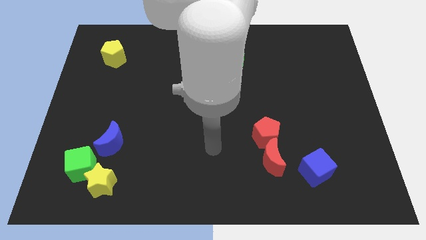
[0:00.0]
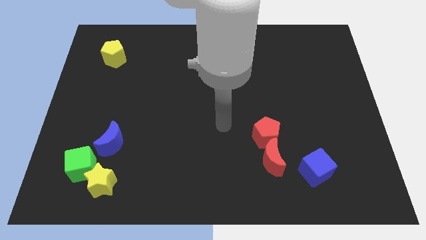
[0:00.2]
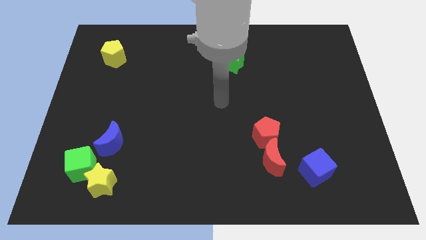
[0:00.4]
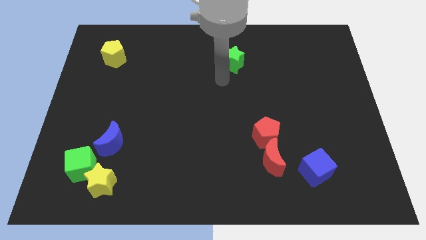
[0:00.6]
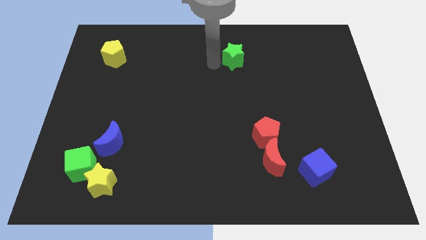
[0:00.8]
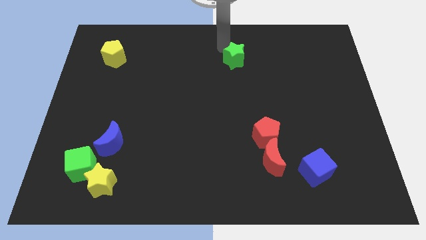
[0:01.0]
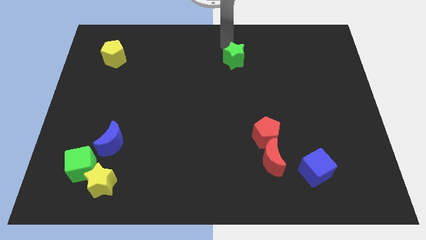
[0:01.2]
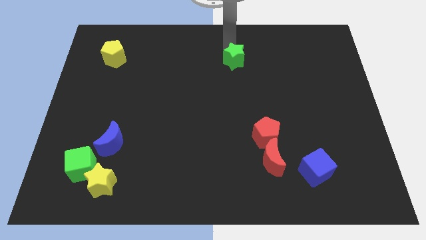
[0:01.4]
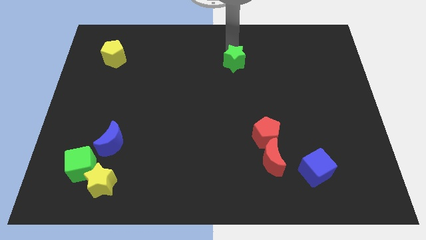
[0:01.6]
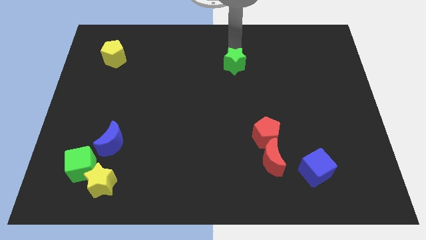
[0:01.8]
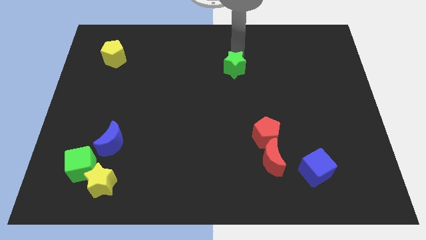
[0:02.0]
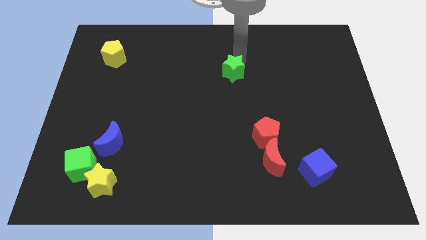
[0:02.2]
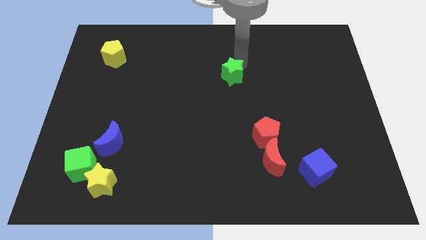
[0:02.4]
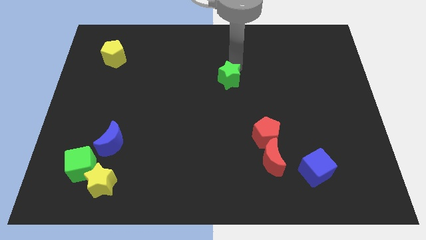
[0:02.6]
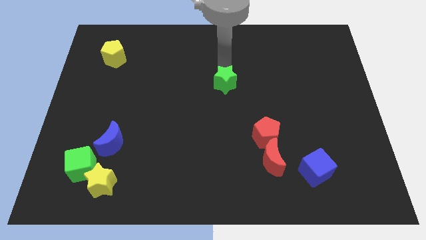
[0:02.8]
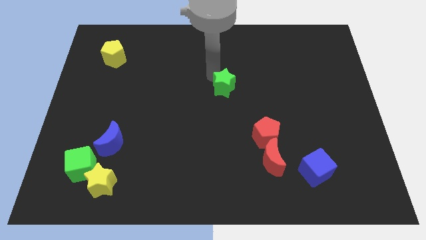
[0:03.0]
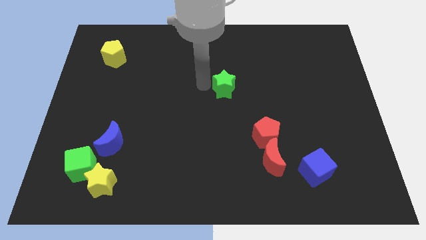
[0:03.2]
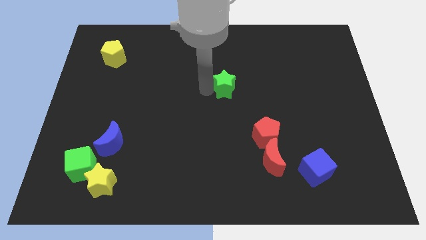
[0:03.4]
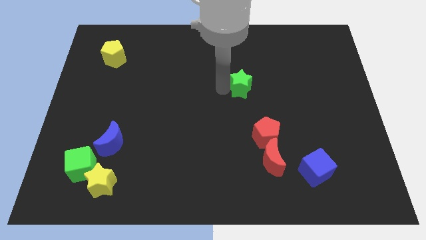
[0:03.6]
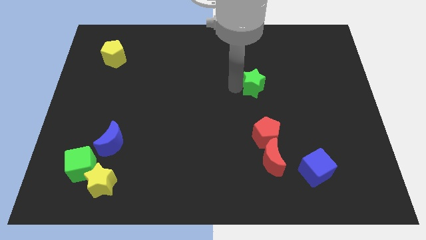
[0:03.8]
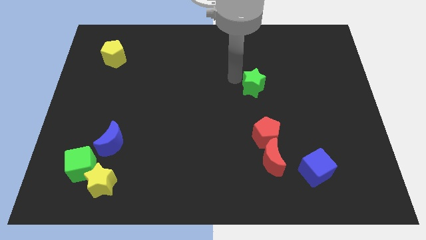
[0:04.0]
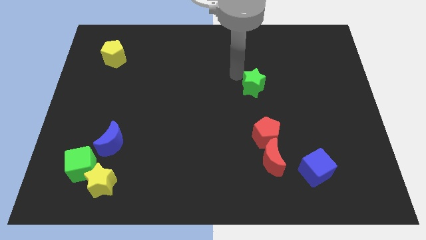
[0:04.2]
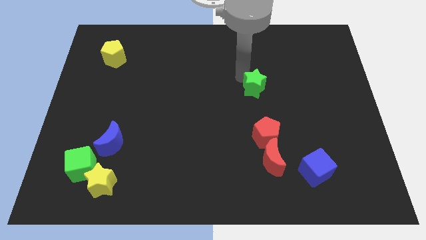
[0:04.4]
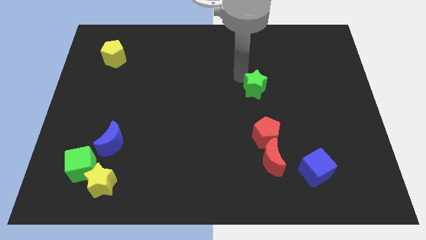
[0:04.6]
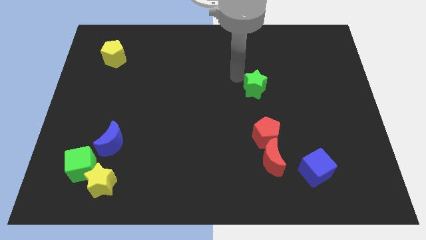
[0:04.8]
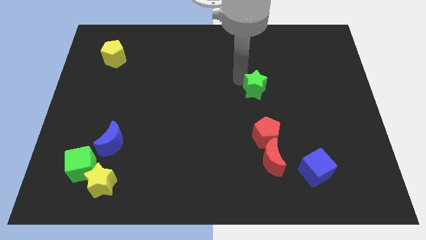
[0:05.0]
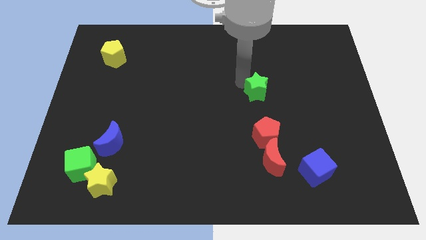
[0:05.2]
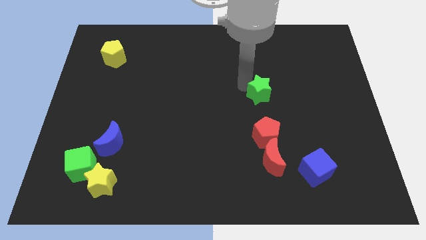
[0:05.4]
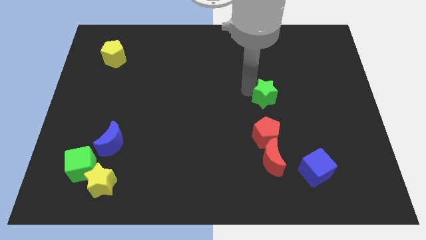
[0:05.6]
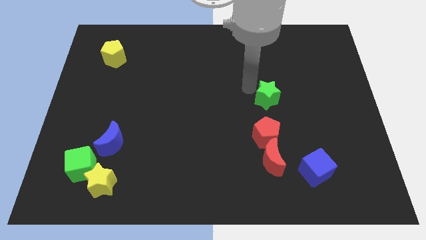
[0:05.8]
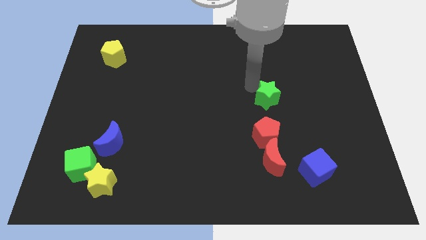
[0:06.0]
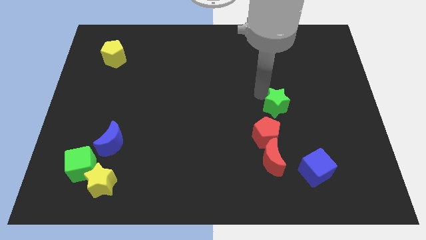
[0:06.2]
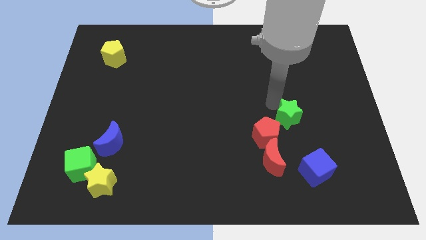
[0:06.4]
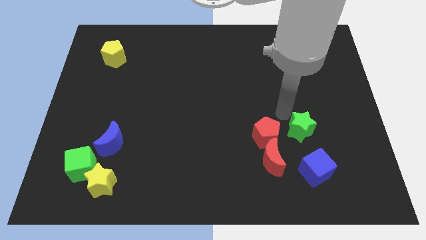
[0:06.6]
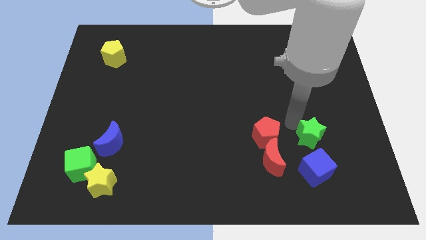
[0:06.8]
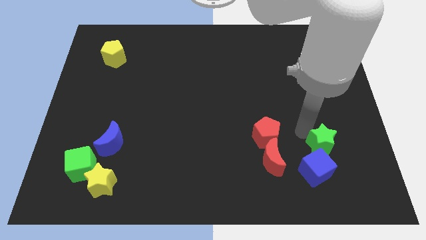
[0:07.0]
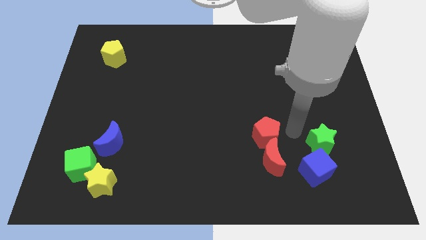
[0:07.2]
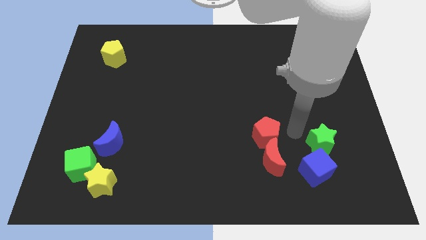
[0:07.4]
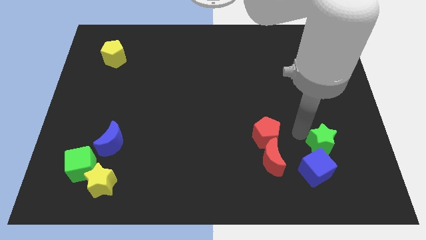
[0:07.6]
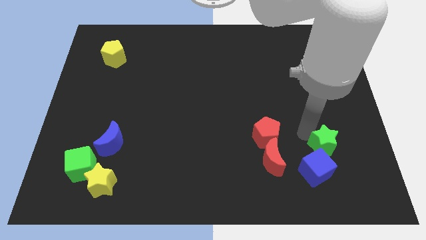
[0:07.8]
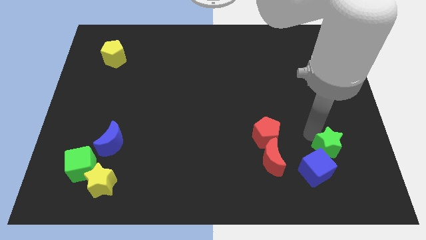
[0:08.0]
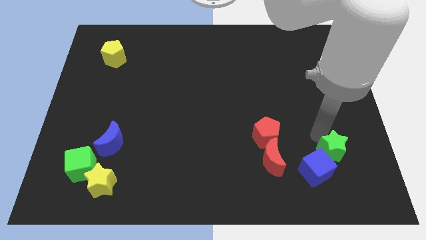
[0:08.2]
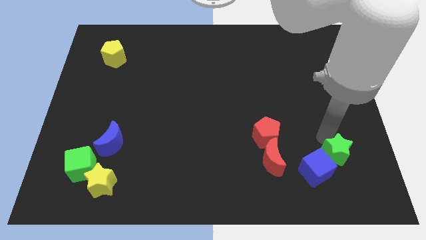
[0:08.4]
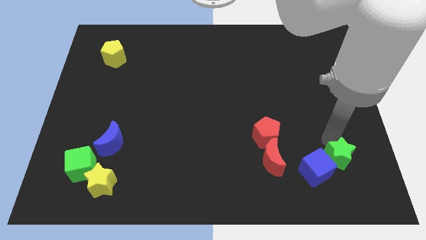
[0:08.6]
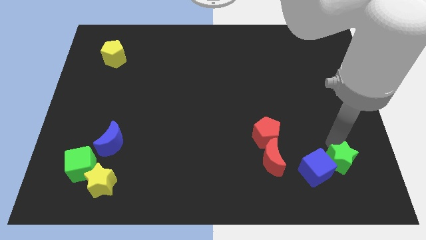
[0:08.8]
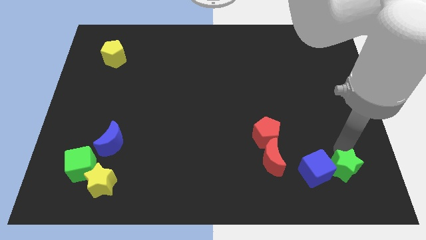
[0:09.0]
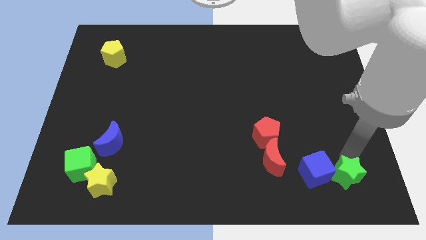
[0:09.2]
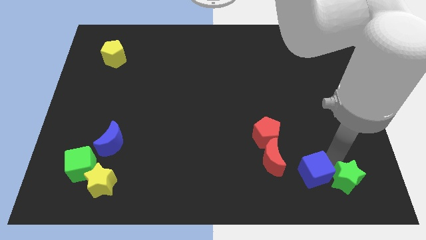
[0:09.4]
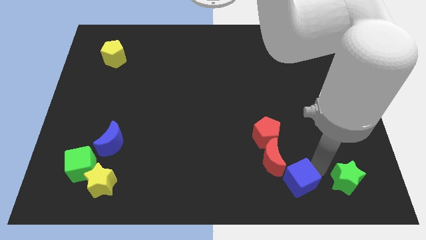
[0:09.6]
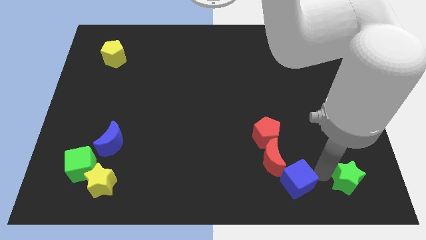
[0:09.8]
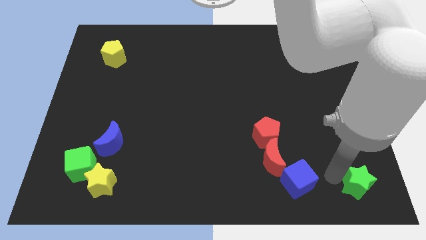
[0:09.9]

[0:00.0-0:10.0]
move the green star to the bottom right corner

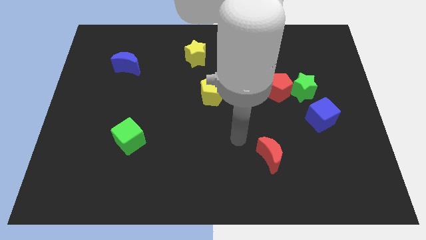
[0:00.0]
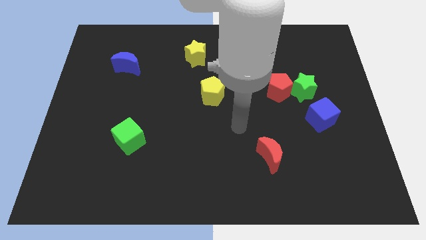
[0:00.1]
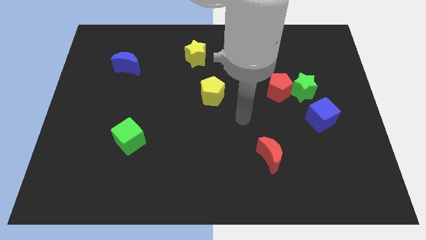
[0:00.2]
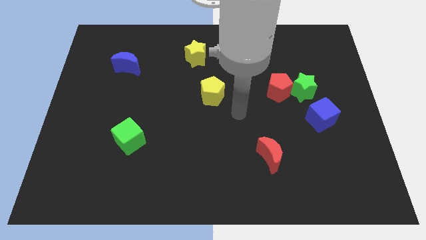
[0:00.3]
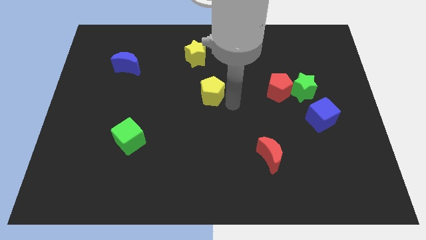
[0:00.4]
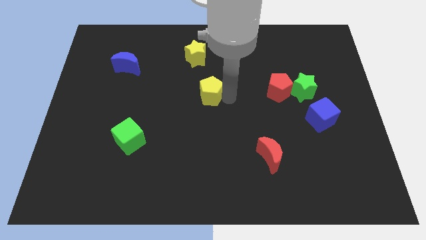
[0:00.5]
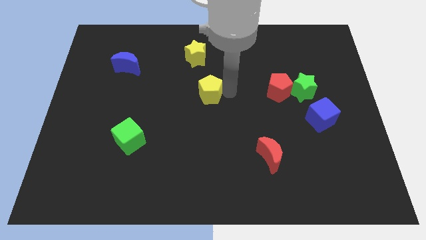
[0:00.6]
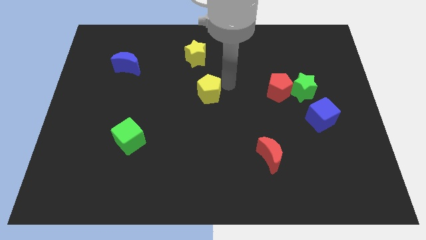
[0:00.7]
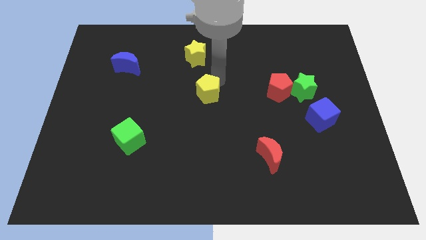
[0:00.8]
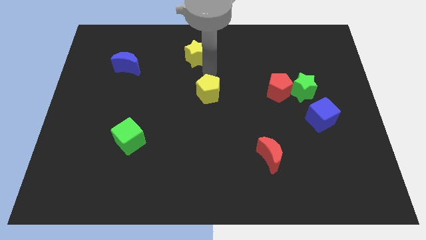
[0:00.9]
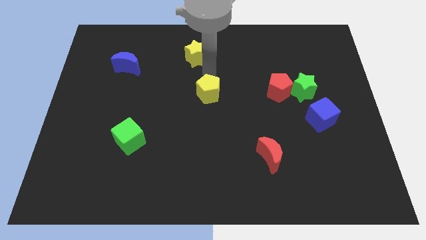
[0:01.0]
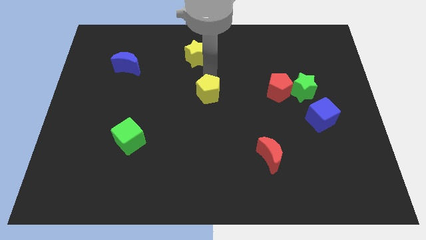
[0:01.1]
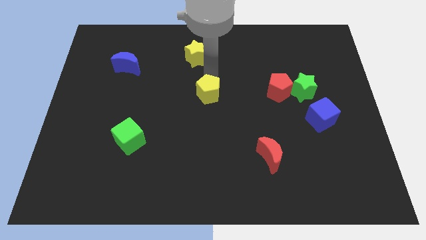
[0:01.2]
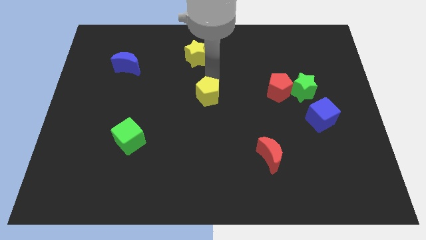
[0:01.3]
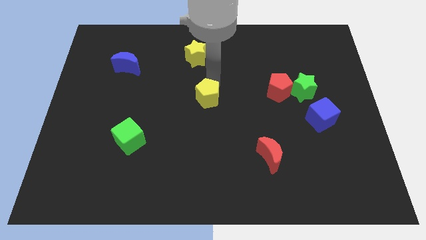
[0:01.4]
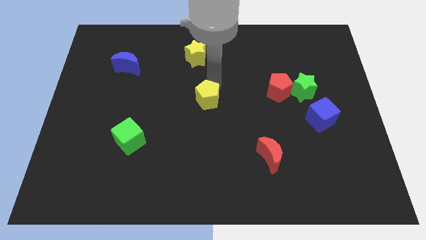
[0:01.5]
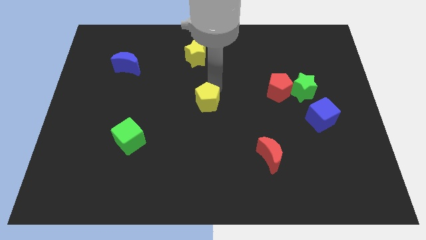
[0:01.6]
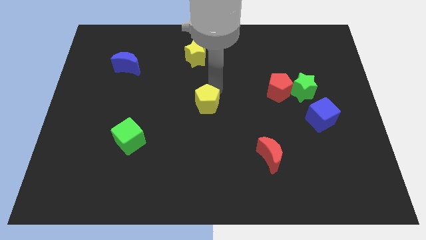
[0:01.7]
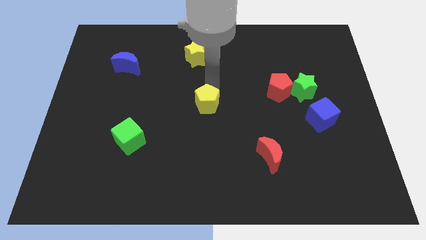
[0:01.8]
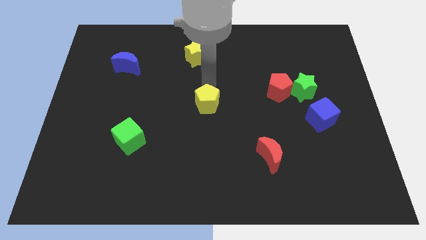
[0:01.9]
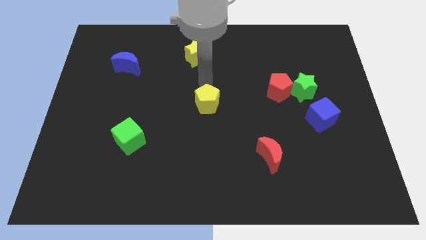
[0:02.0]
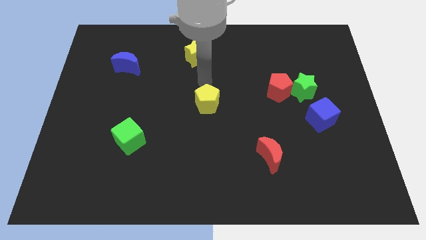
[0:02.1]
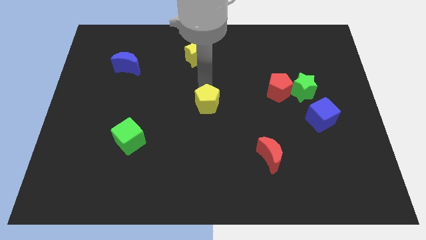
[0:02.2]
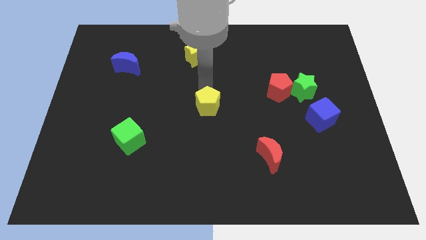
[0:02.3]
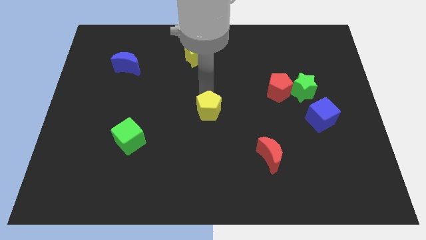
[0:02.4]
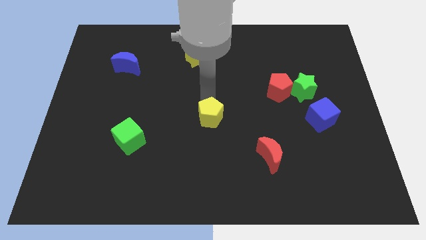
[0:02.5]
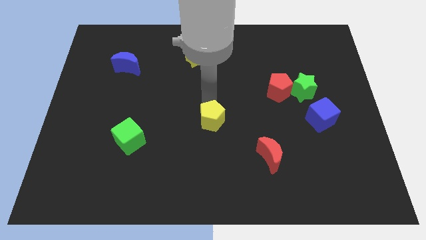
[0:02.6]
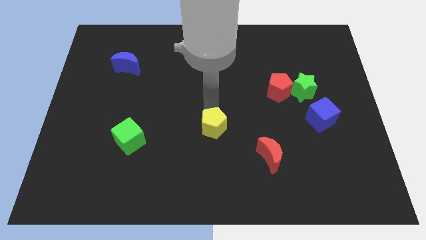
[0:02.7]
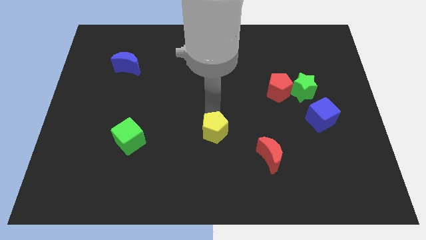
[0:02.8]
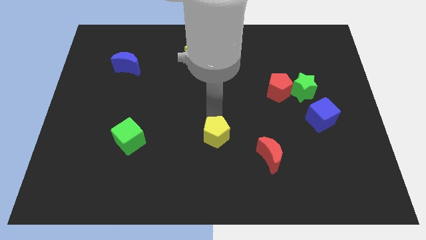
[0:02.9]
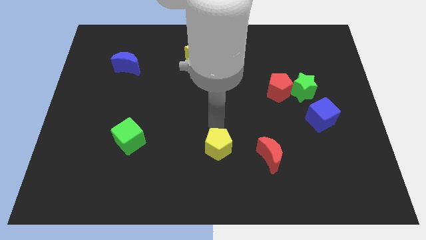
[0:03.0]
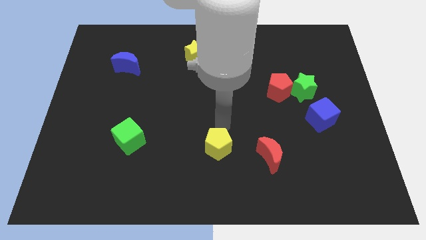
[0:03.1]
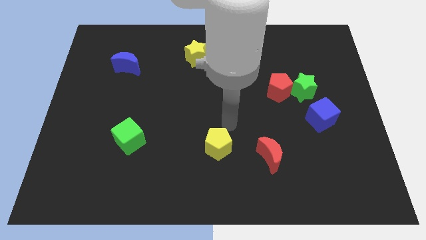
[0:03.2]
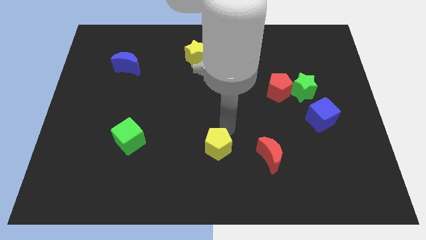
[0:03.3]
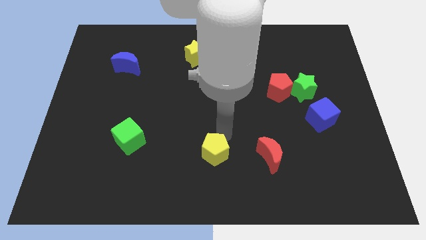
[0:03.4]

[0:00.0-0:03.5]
move the yellow pentagon to the bottom side
